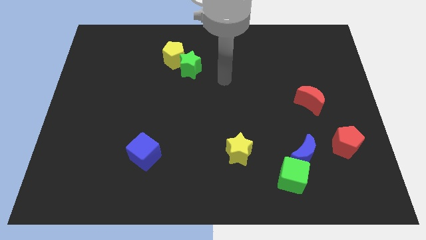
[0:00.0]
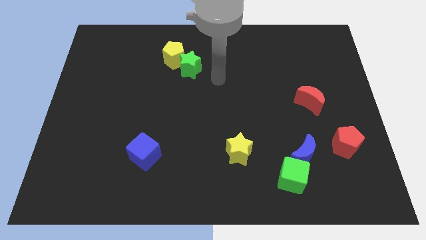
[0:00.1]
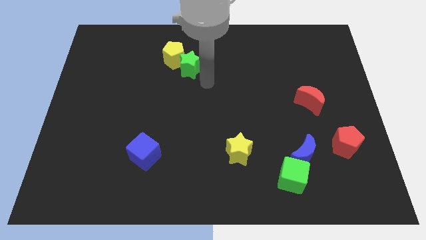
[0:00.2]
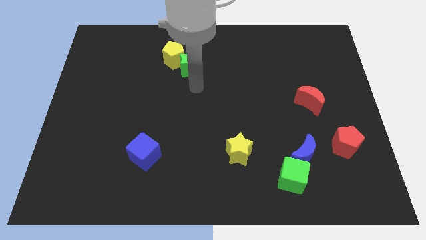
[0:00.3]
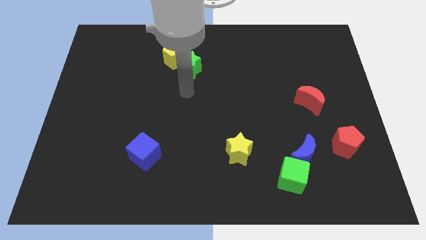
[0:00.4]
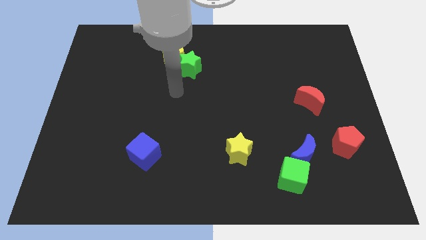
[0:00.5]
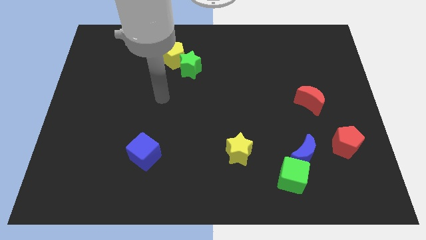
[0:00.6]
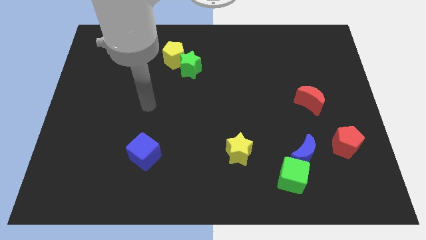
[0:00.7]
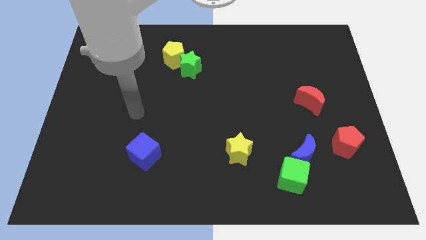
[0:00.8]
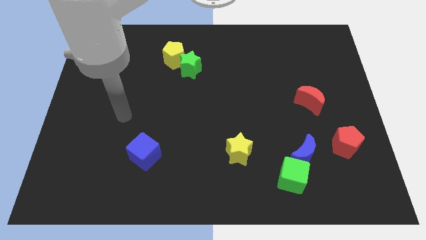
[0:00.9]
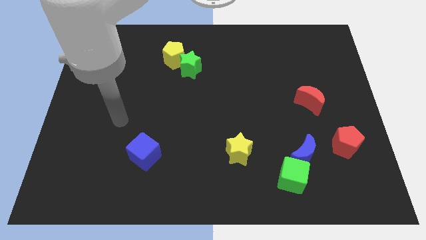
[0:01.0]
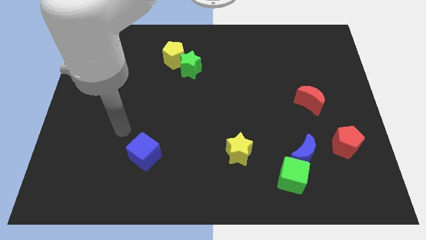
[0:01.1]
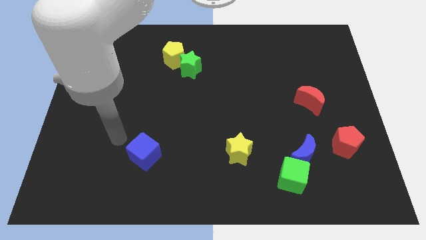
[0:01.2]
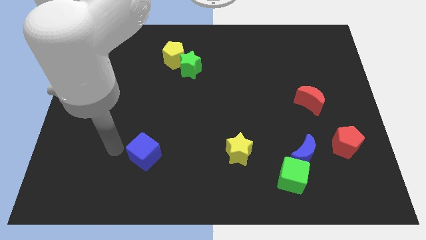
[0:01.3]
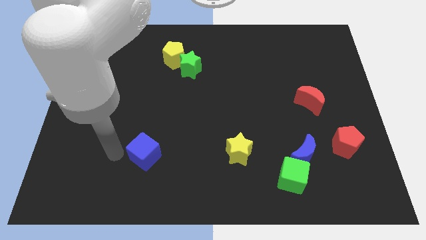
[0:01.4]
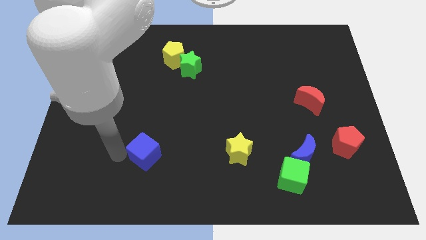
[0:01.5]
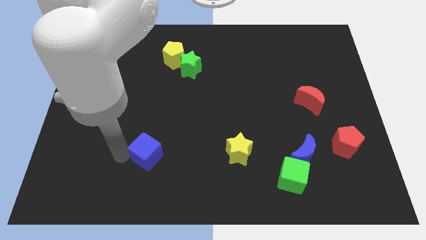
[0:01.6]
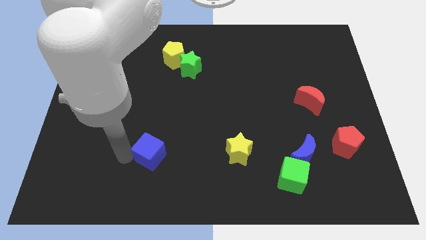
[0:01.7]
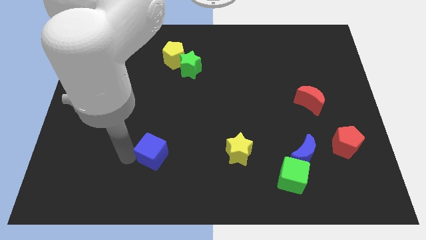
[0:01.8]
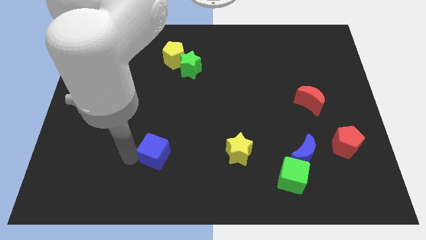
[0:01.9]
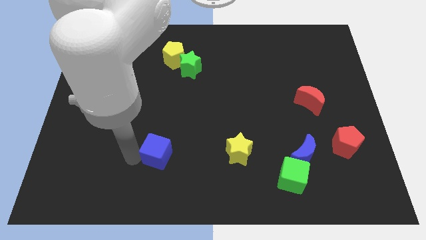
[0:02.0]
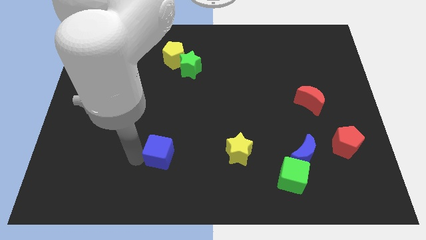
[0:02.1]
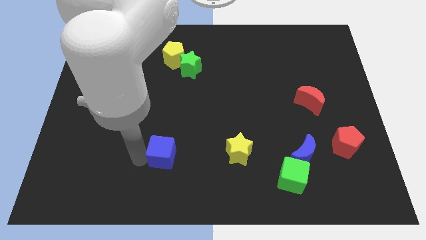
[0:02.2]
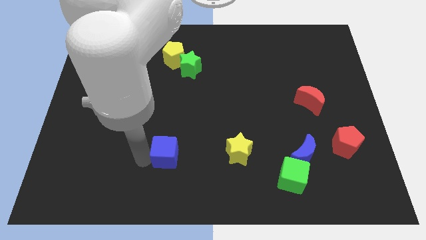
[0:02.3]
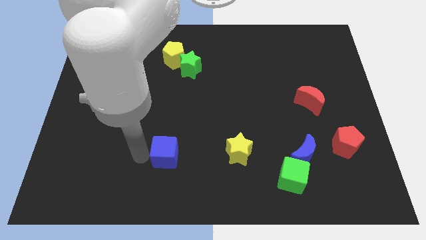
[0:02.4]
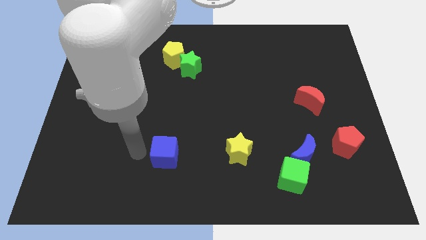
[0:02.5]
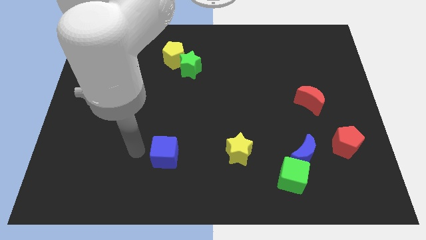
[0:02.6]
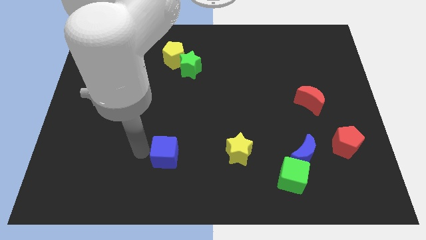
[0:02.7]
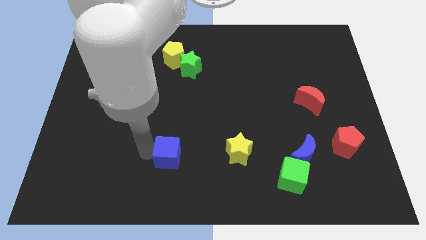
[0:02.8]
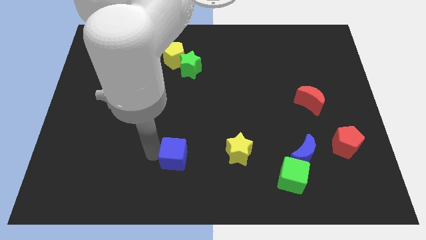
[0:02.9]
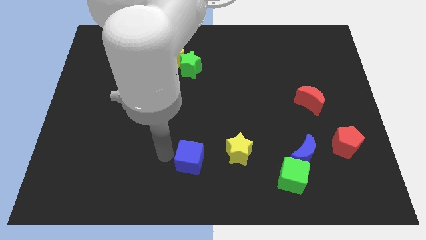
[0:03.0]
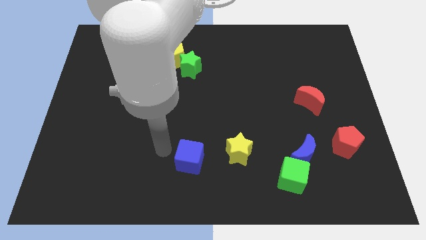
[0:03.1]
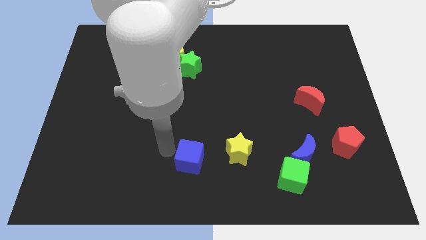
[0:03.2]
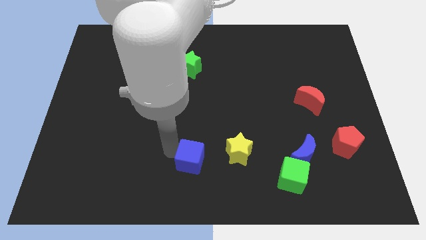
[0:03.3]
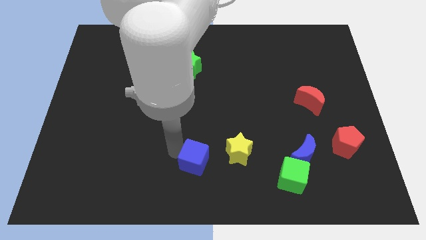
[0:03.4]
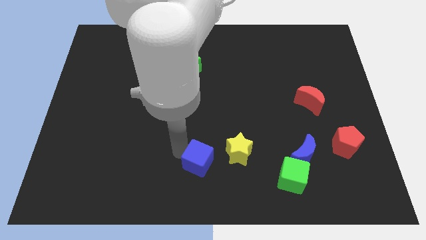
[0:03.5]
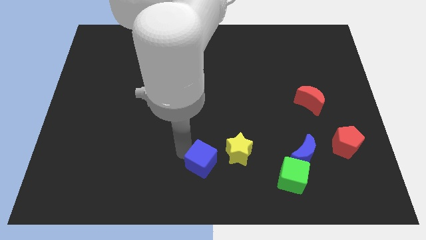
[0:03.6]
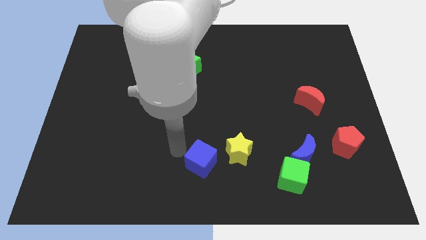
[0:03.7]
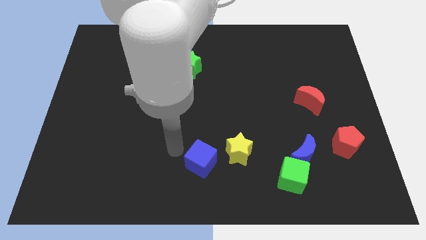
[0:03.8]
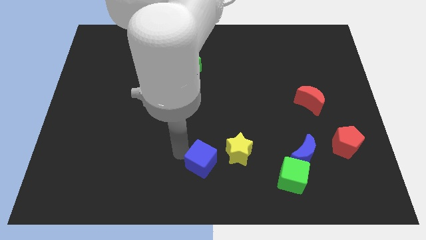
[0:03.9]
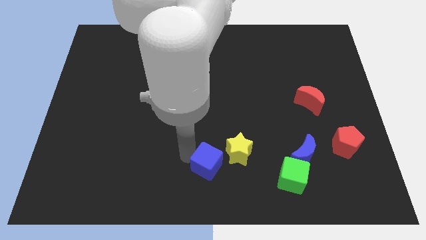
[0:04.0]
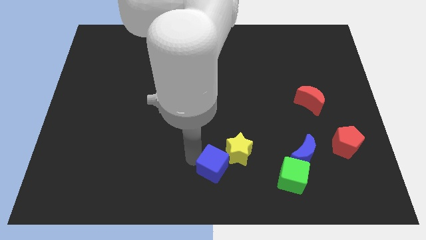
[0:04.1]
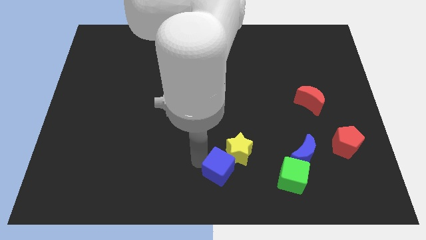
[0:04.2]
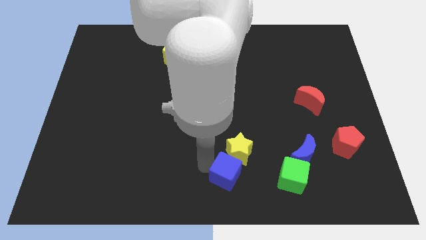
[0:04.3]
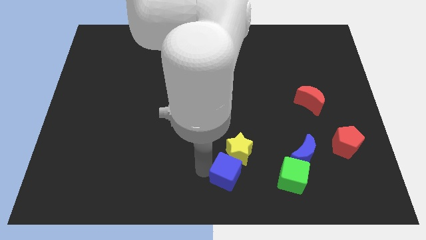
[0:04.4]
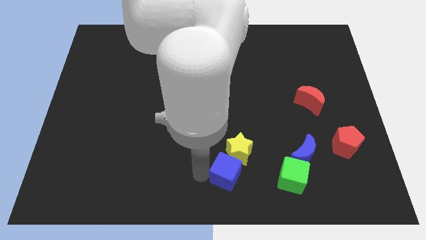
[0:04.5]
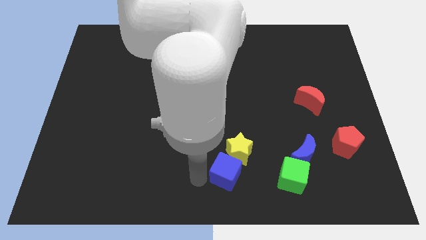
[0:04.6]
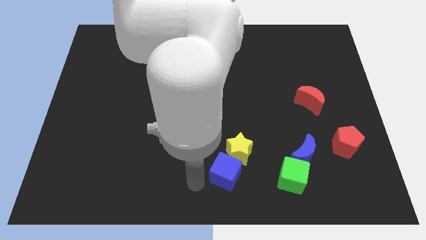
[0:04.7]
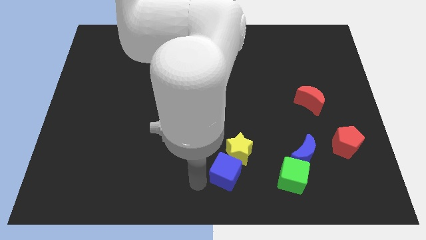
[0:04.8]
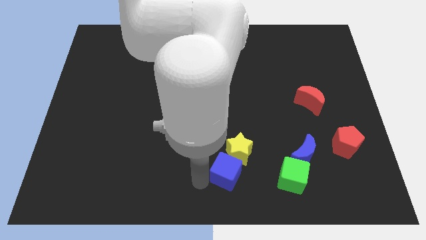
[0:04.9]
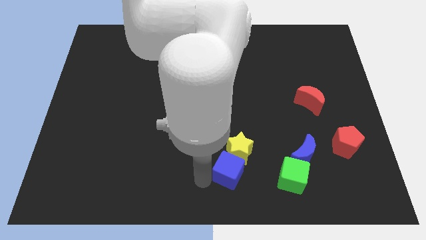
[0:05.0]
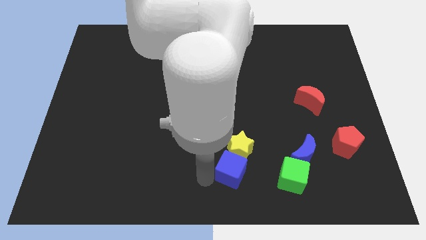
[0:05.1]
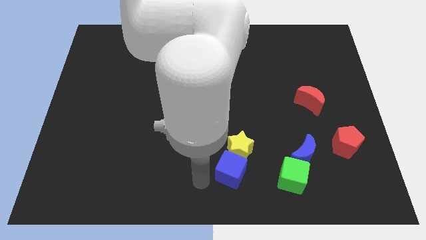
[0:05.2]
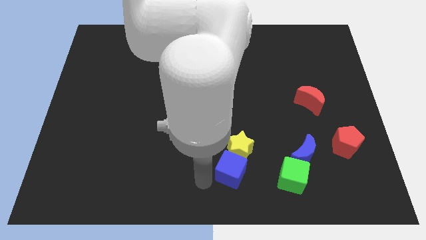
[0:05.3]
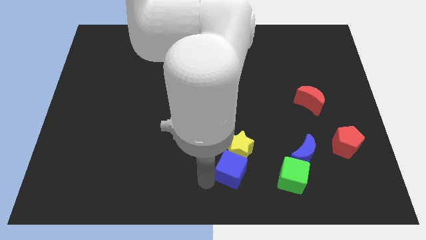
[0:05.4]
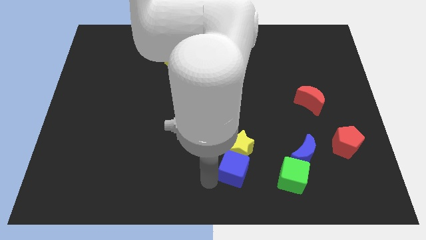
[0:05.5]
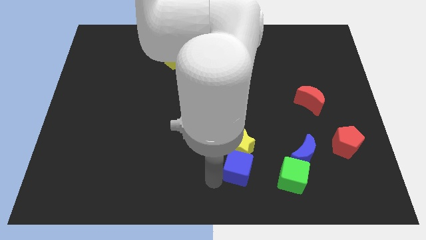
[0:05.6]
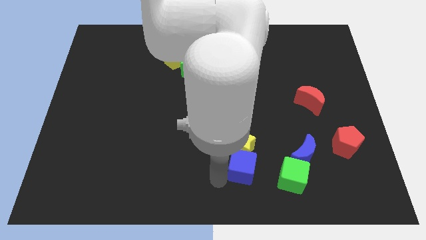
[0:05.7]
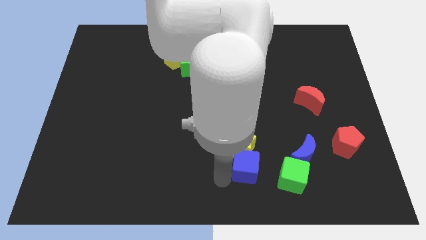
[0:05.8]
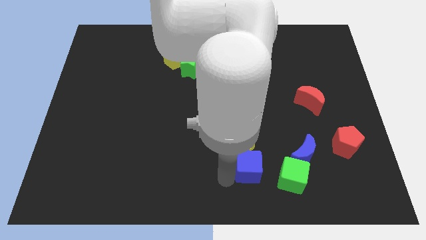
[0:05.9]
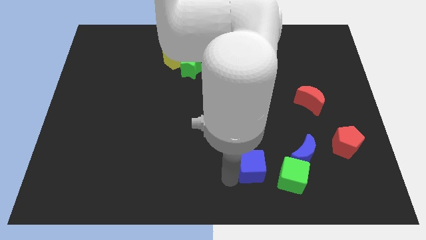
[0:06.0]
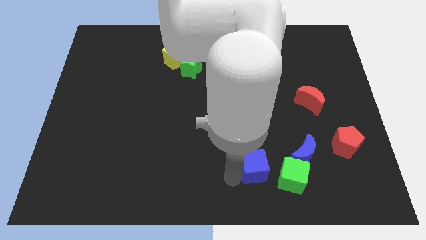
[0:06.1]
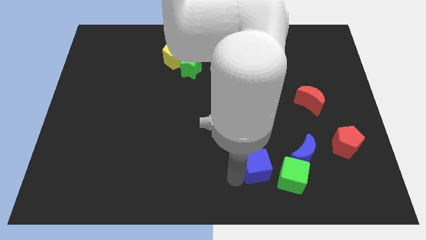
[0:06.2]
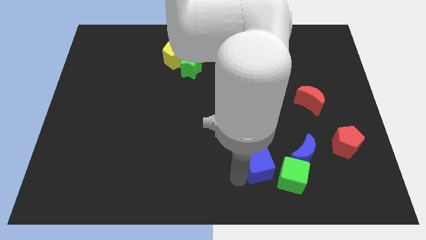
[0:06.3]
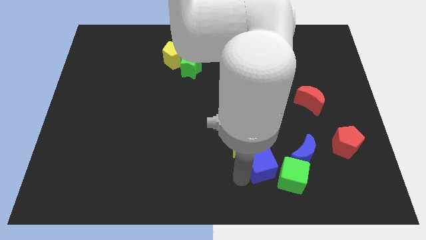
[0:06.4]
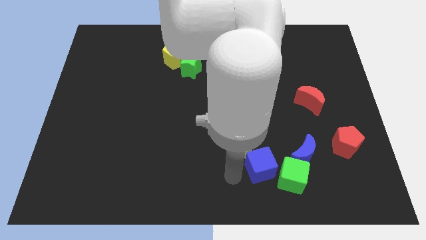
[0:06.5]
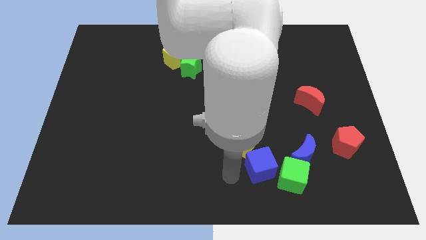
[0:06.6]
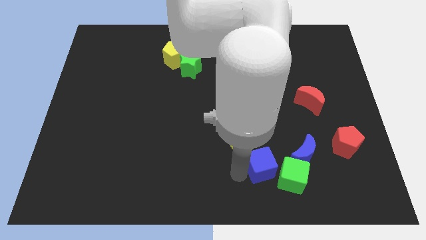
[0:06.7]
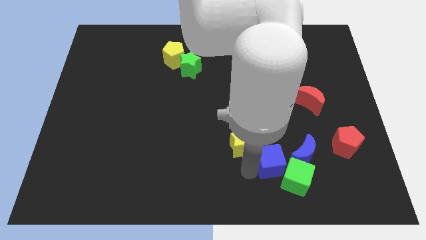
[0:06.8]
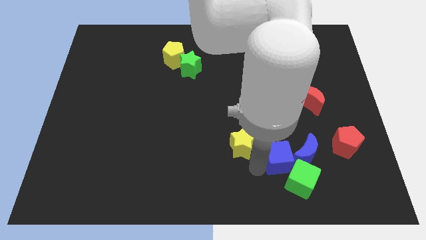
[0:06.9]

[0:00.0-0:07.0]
push the blue cube towards the blue moon
